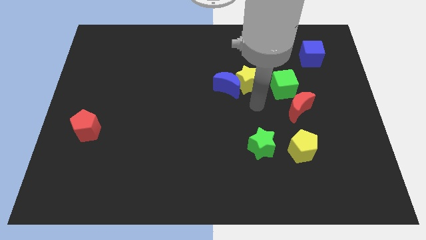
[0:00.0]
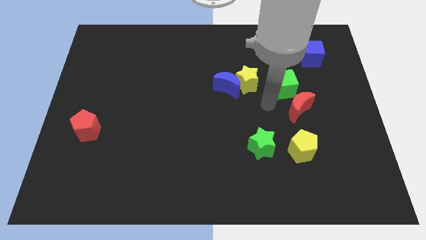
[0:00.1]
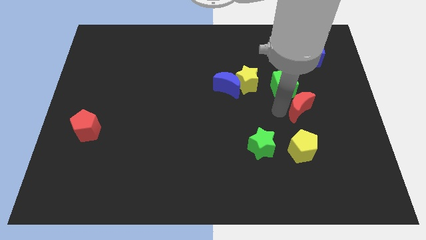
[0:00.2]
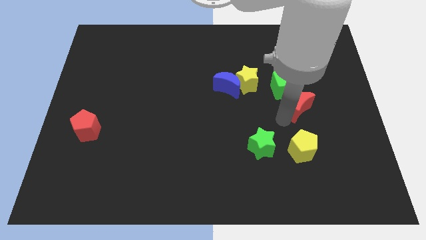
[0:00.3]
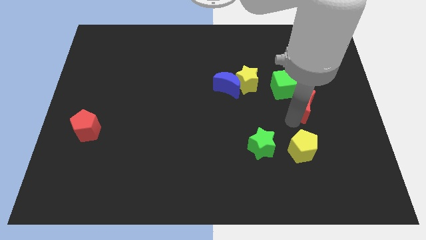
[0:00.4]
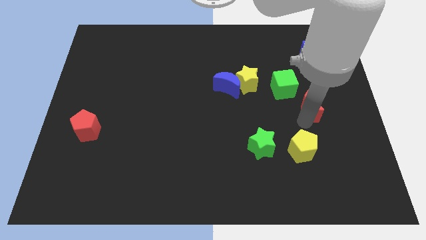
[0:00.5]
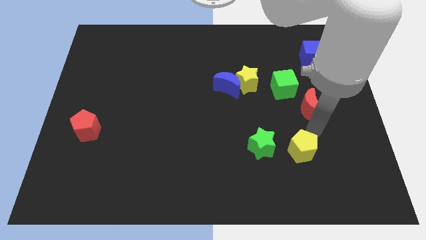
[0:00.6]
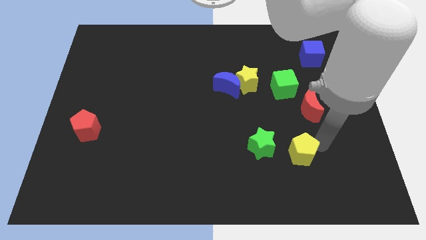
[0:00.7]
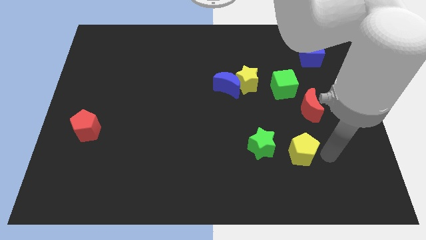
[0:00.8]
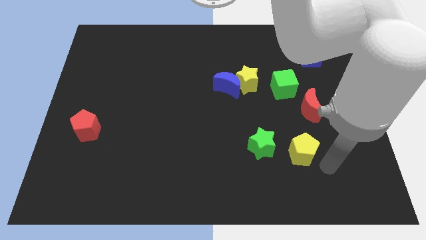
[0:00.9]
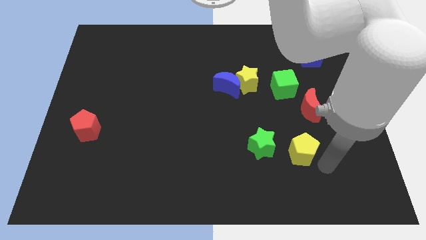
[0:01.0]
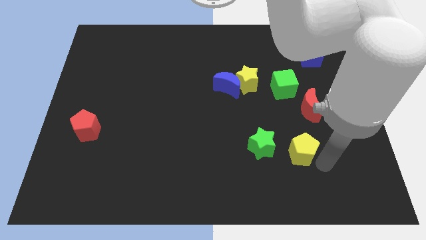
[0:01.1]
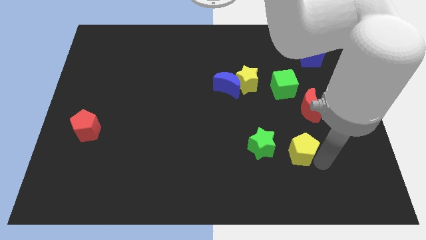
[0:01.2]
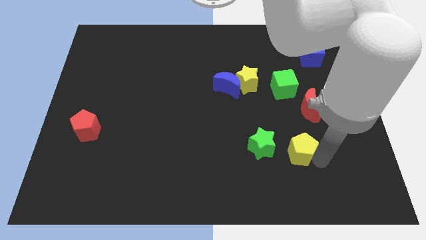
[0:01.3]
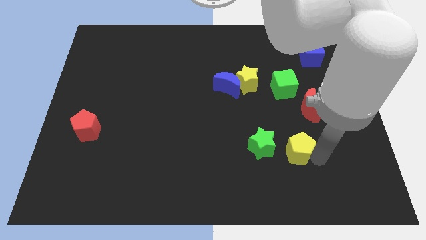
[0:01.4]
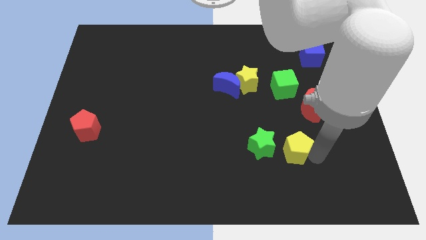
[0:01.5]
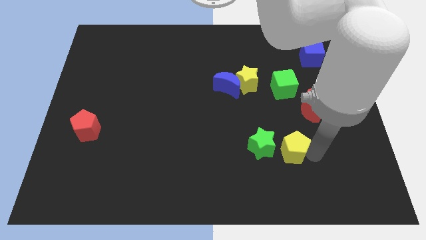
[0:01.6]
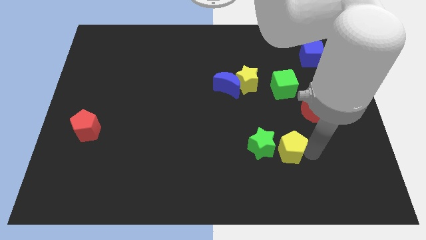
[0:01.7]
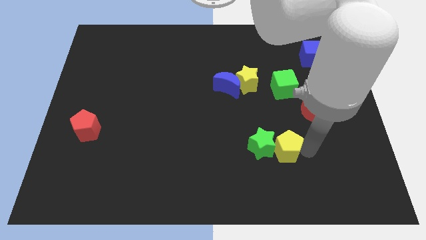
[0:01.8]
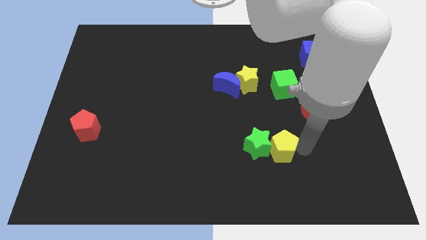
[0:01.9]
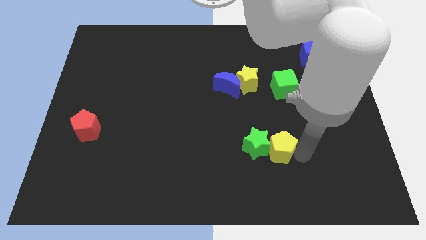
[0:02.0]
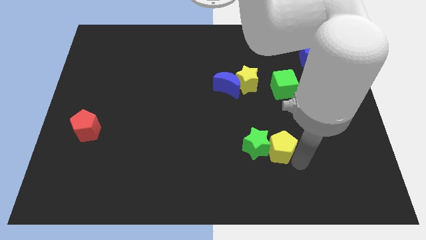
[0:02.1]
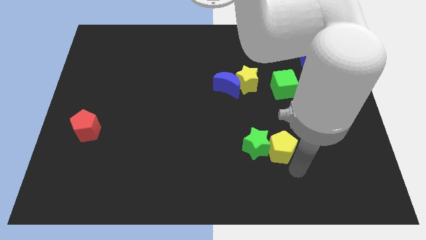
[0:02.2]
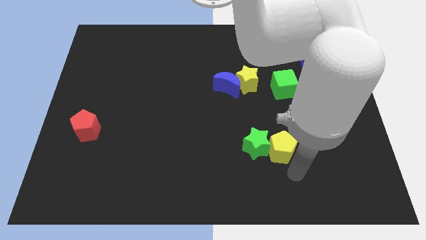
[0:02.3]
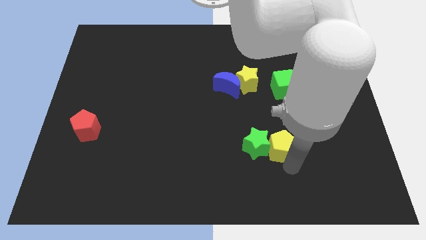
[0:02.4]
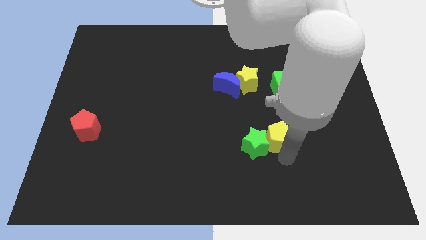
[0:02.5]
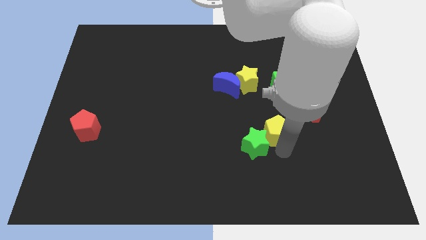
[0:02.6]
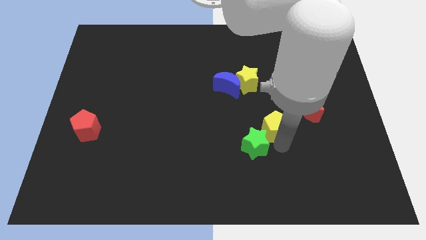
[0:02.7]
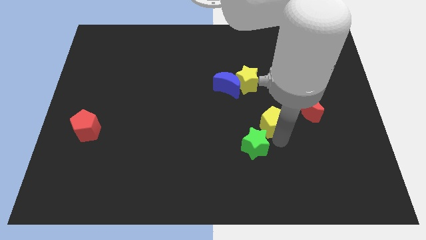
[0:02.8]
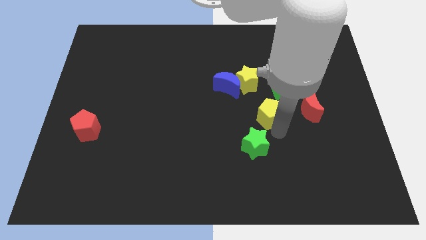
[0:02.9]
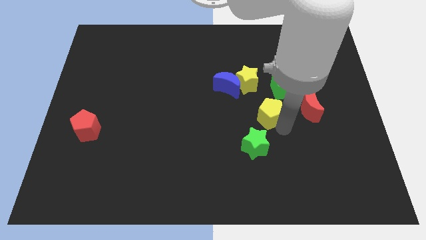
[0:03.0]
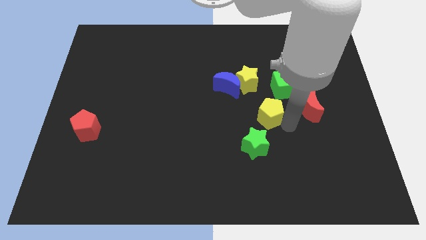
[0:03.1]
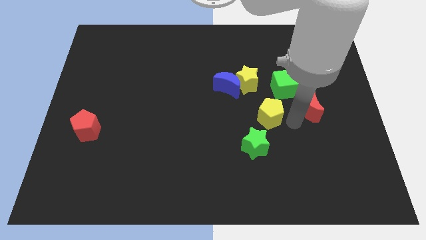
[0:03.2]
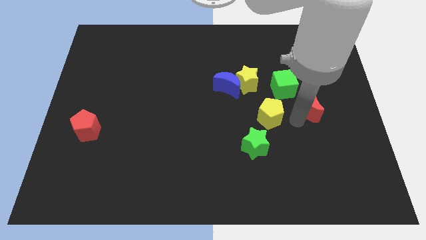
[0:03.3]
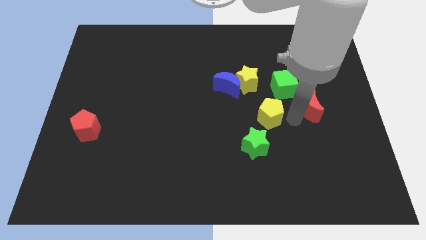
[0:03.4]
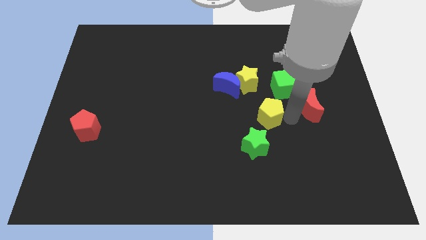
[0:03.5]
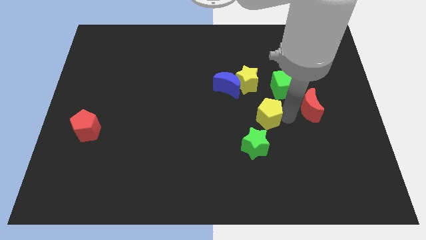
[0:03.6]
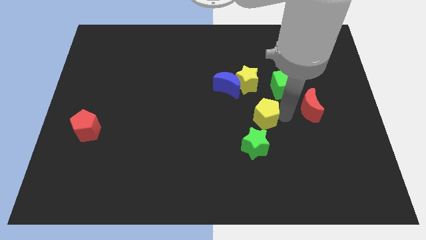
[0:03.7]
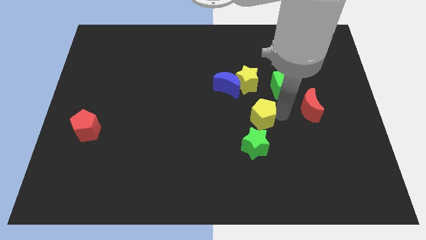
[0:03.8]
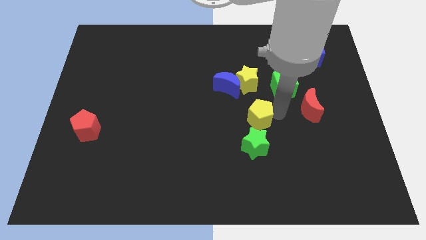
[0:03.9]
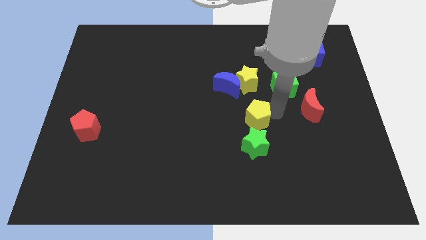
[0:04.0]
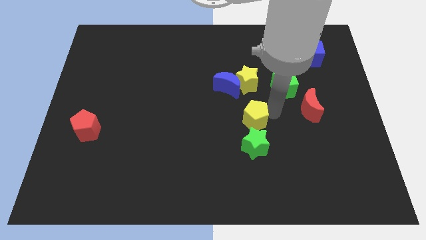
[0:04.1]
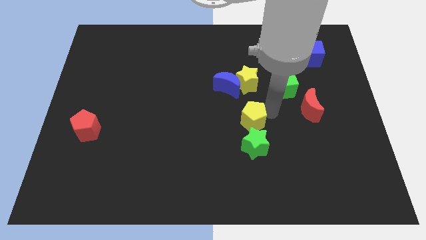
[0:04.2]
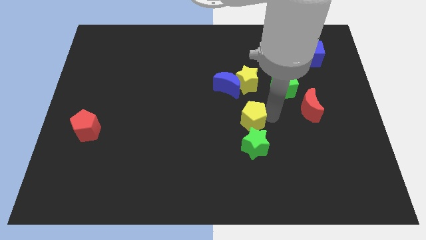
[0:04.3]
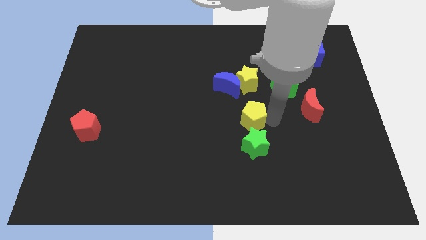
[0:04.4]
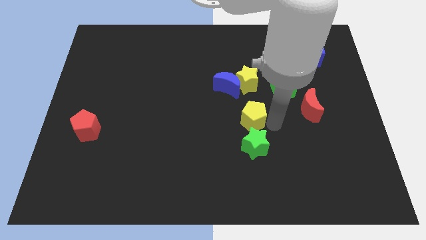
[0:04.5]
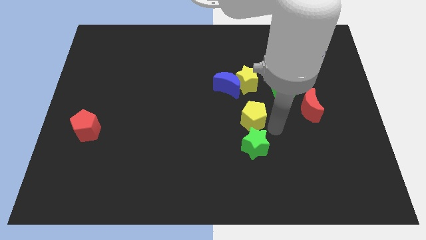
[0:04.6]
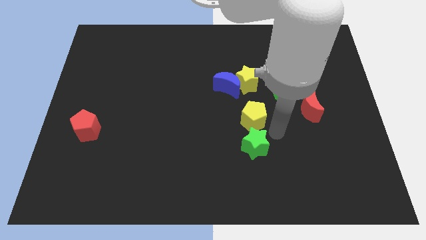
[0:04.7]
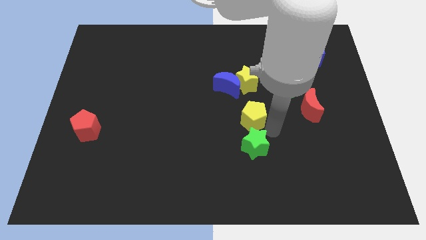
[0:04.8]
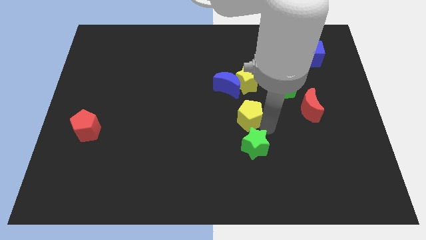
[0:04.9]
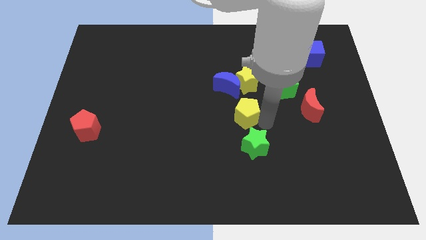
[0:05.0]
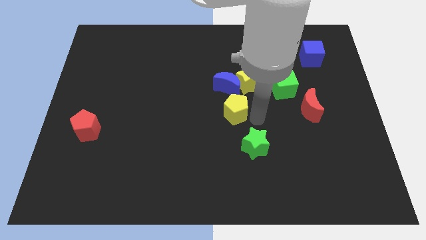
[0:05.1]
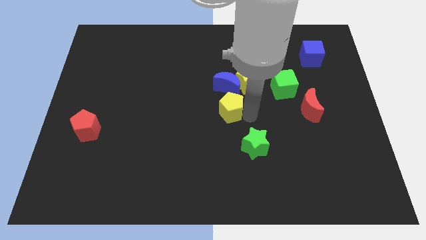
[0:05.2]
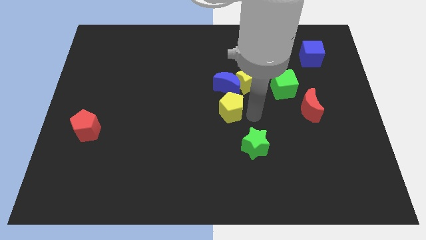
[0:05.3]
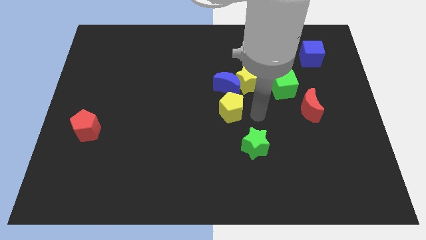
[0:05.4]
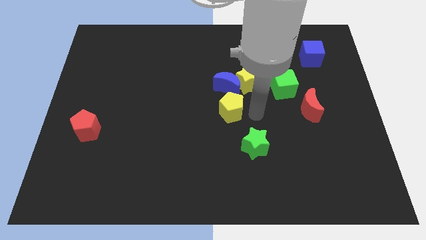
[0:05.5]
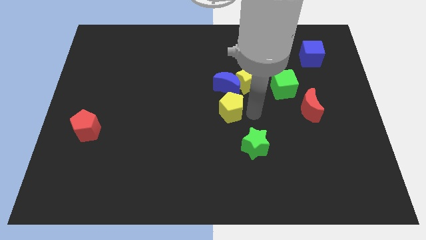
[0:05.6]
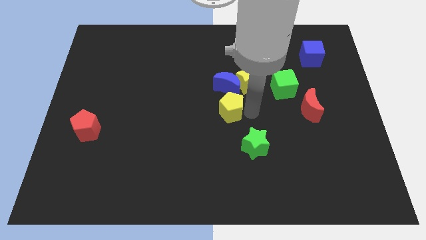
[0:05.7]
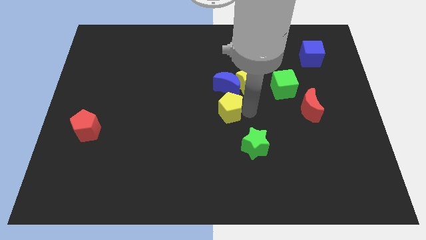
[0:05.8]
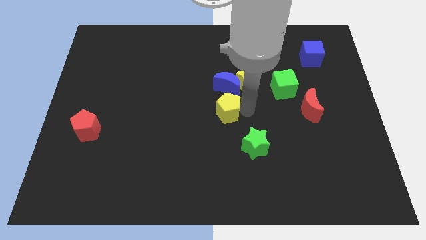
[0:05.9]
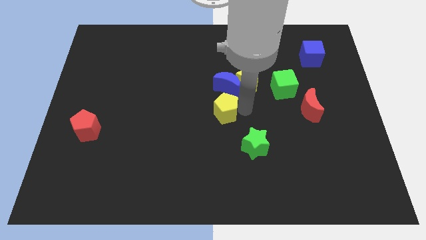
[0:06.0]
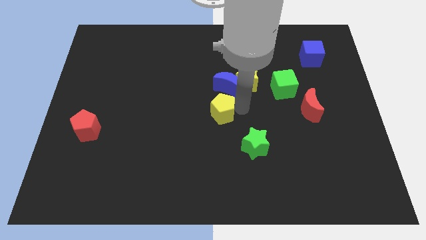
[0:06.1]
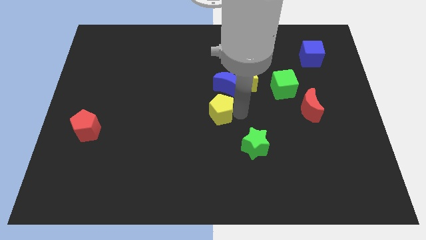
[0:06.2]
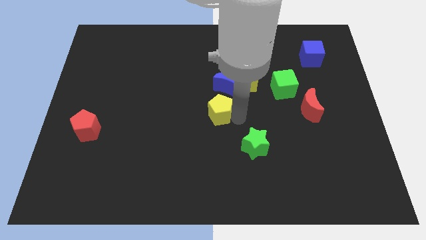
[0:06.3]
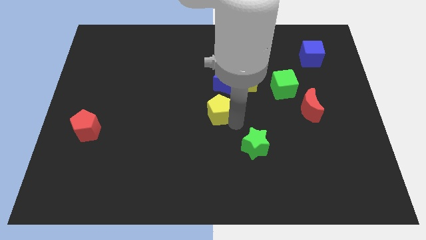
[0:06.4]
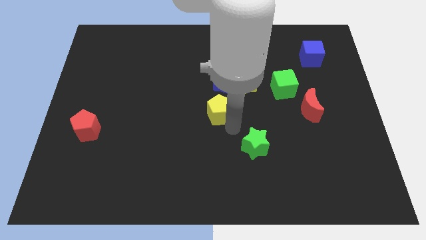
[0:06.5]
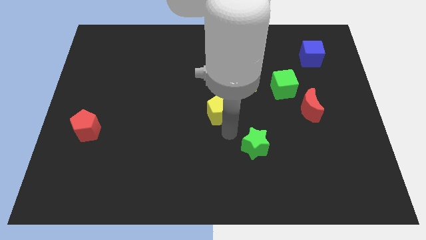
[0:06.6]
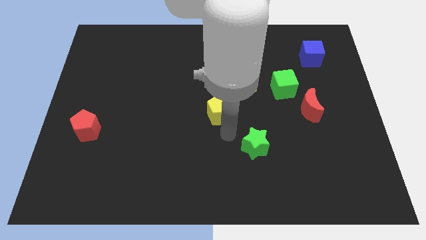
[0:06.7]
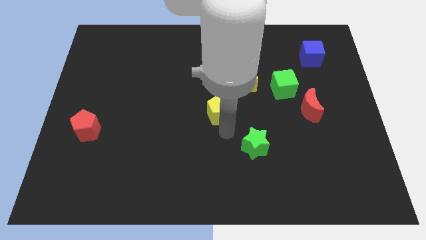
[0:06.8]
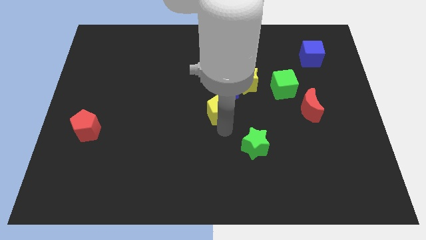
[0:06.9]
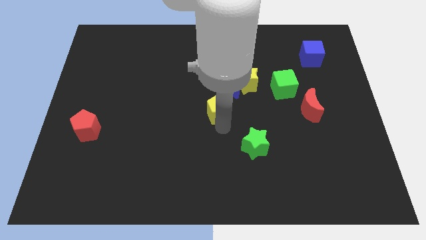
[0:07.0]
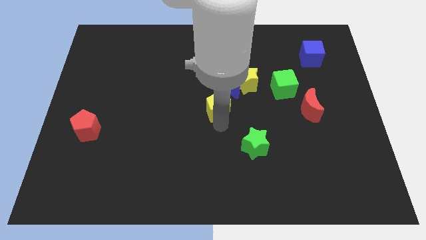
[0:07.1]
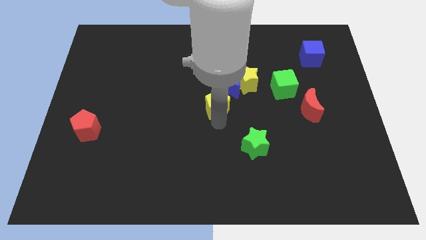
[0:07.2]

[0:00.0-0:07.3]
move the yellow pentagon upwards and then left

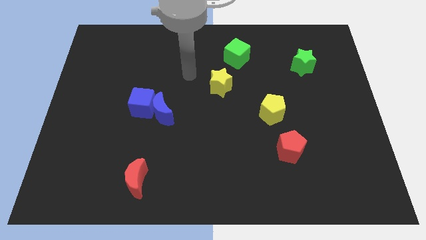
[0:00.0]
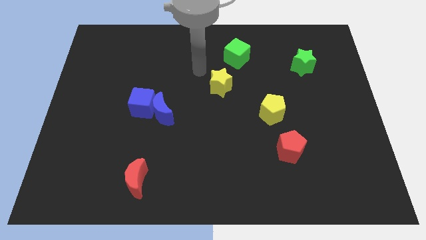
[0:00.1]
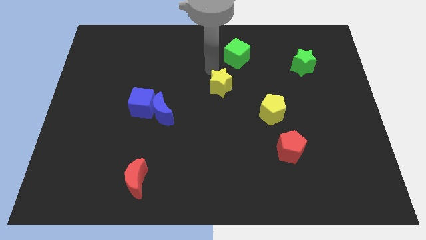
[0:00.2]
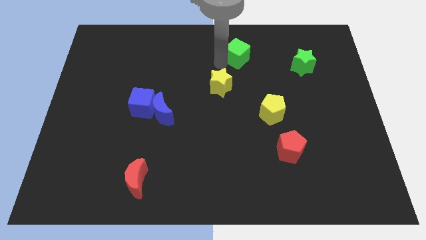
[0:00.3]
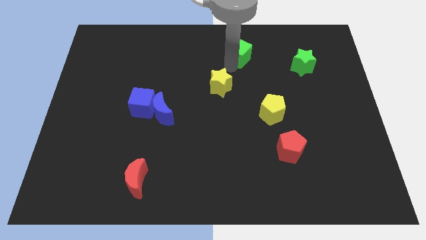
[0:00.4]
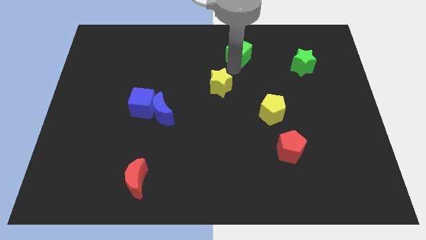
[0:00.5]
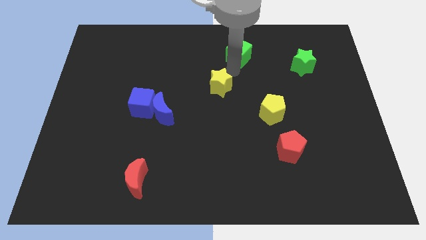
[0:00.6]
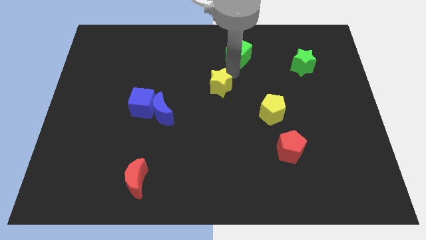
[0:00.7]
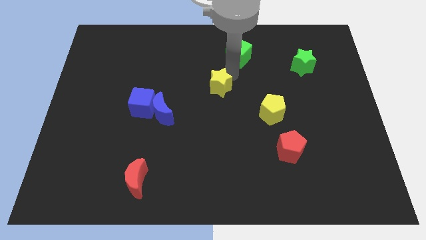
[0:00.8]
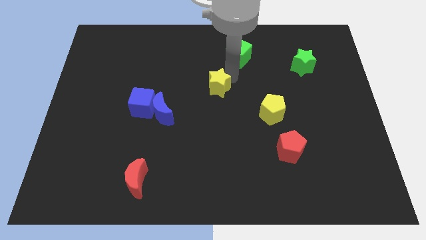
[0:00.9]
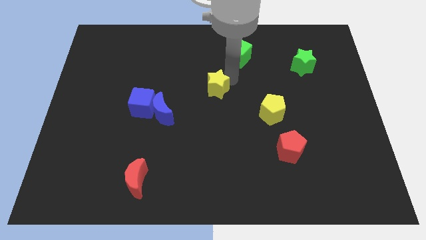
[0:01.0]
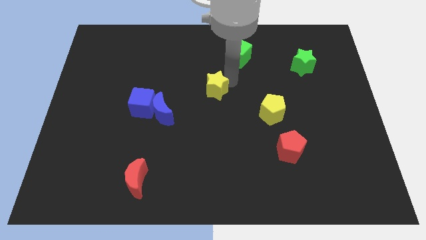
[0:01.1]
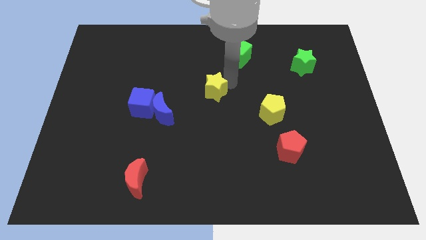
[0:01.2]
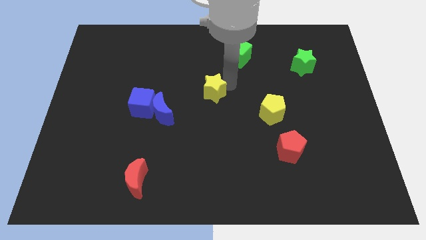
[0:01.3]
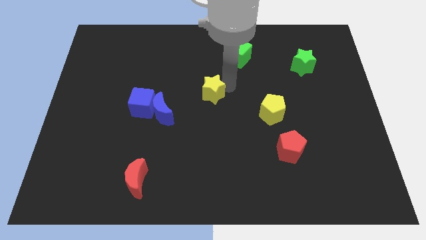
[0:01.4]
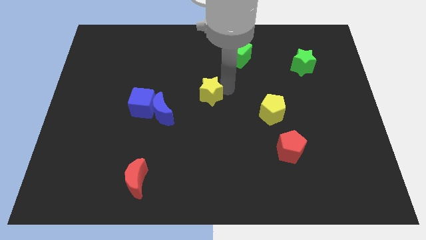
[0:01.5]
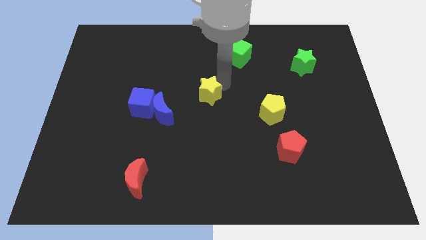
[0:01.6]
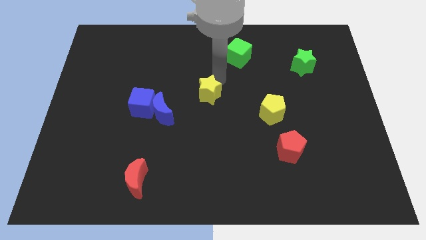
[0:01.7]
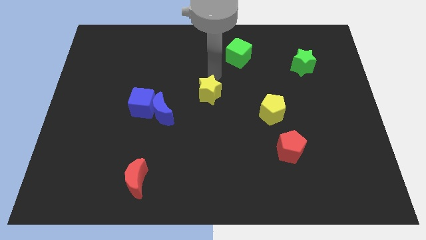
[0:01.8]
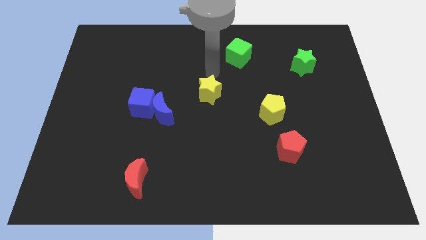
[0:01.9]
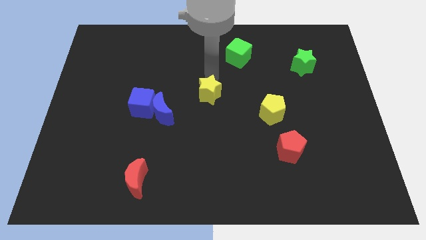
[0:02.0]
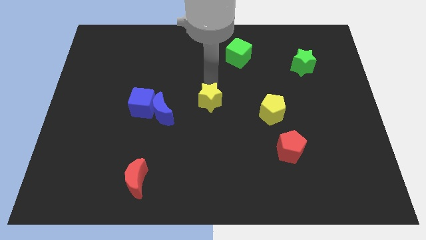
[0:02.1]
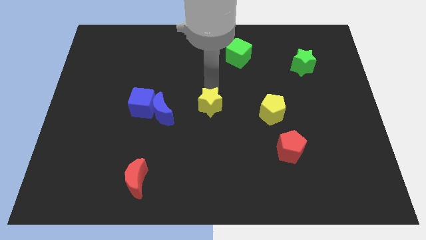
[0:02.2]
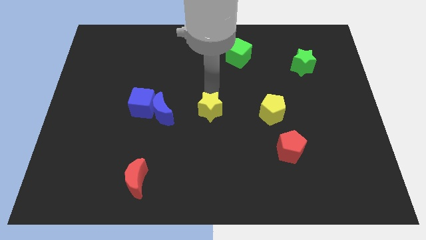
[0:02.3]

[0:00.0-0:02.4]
slightly move the yellow star downwards
